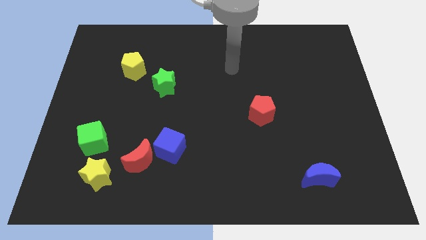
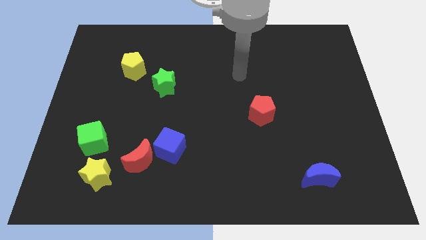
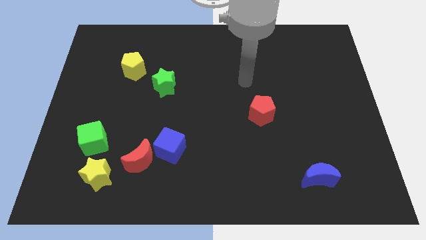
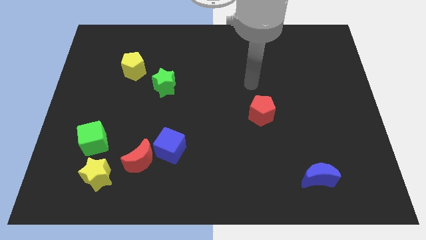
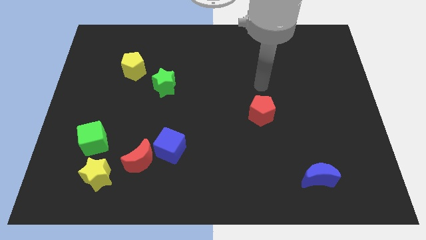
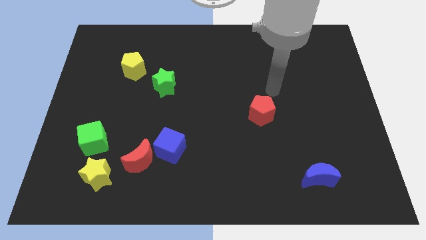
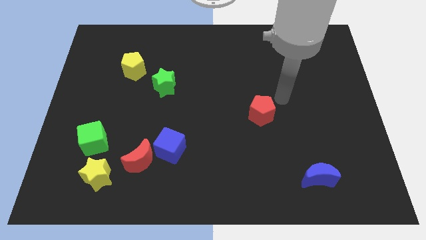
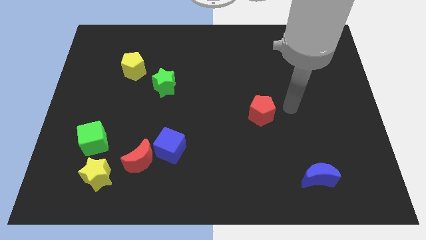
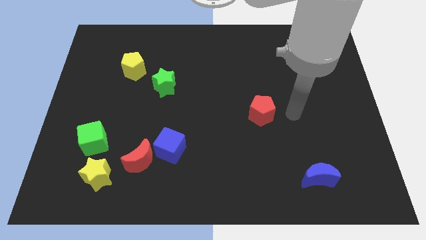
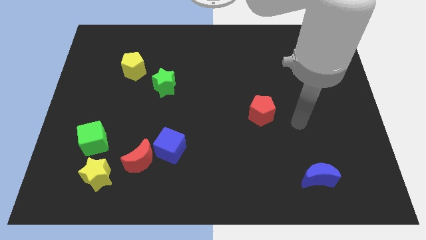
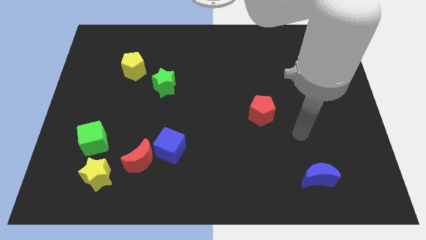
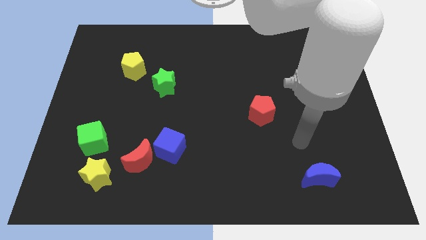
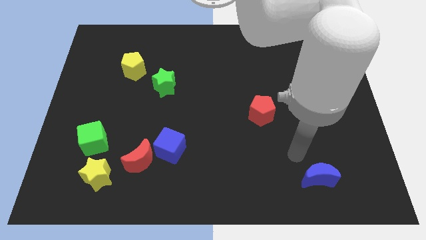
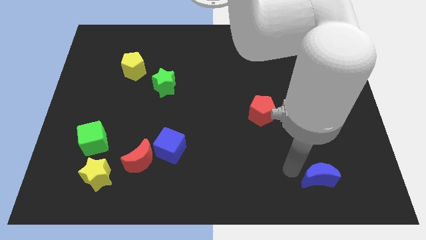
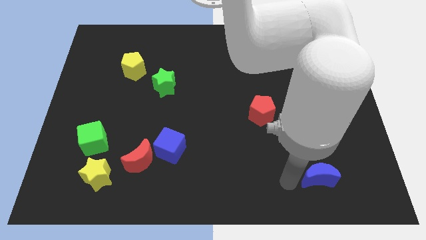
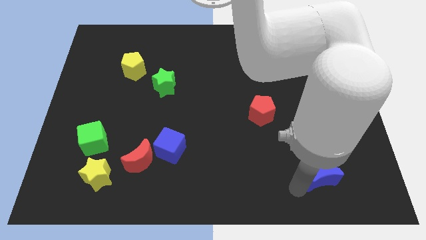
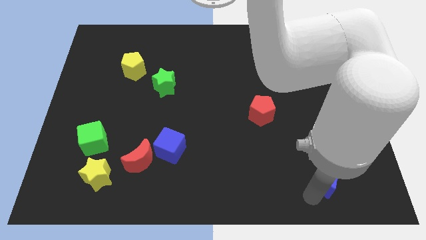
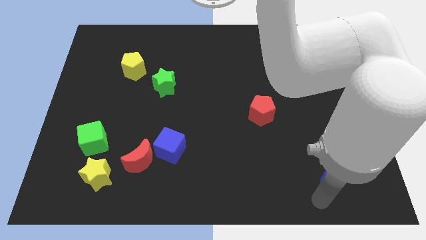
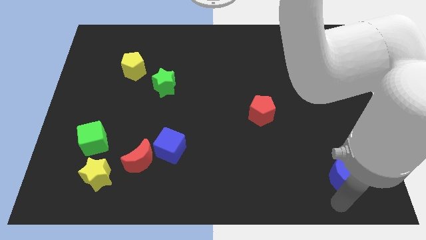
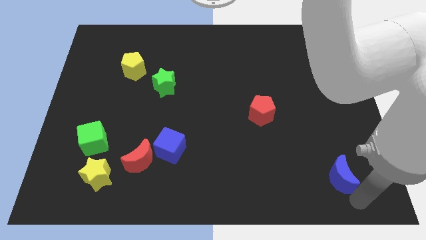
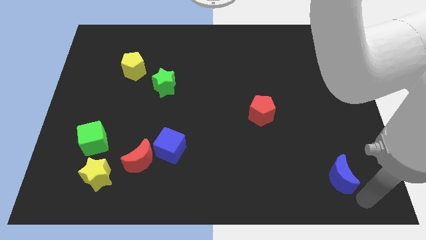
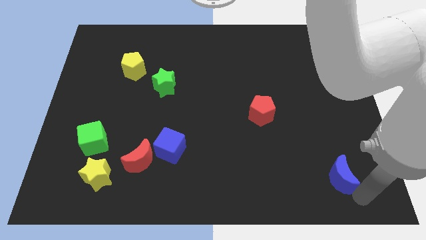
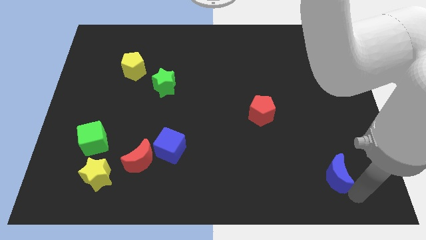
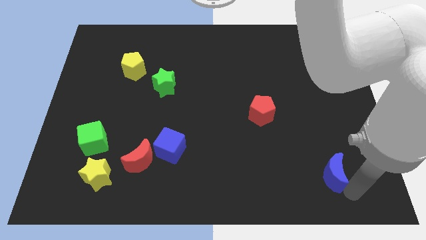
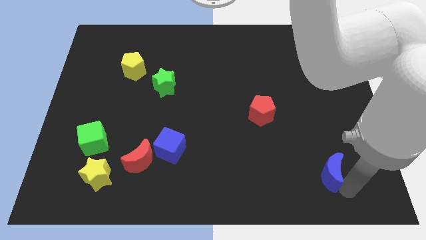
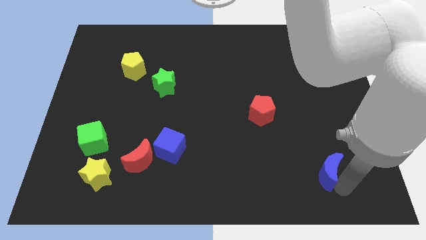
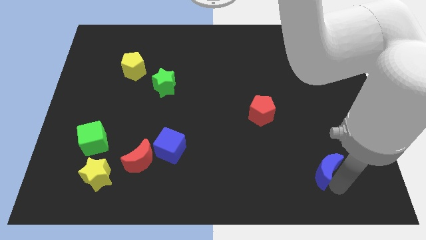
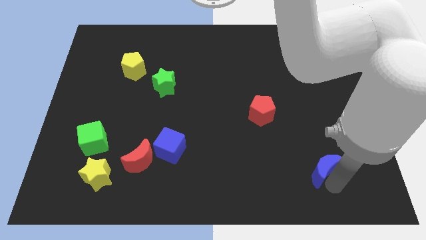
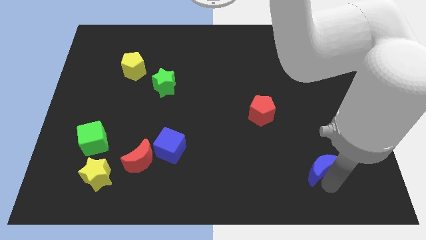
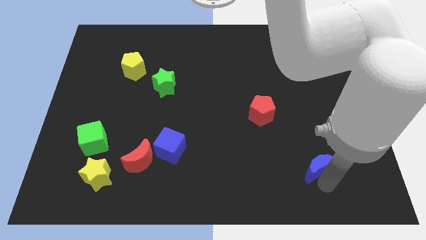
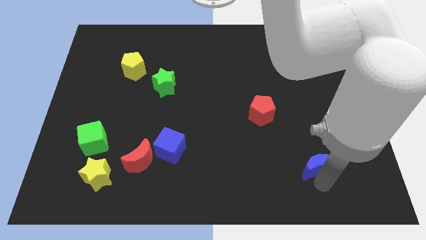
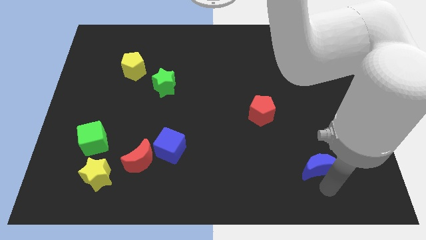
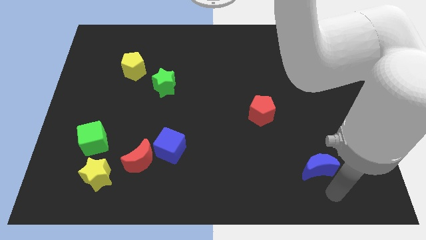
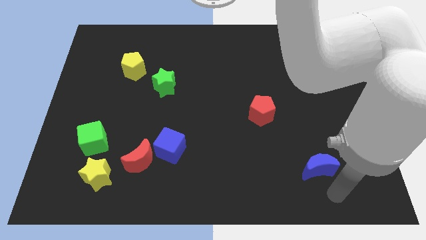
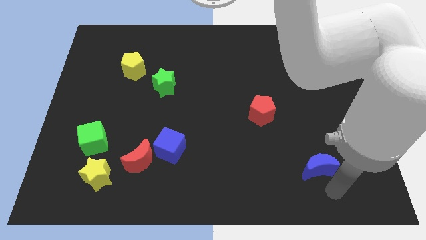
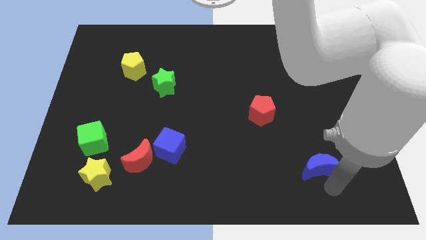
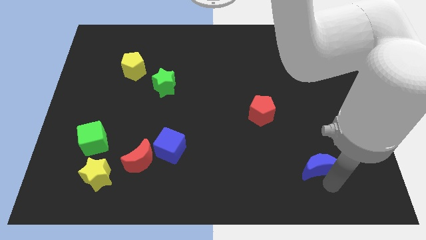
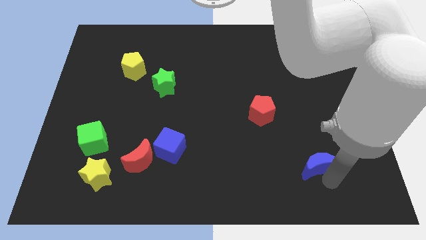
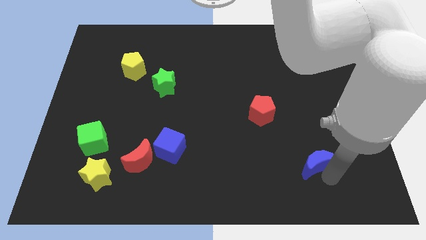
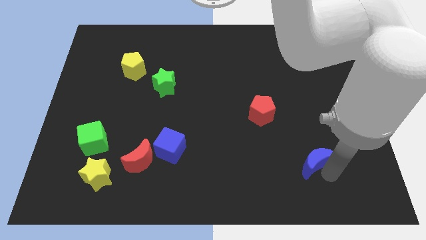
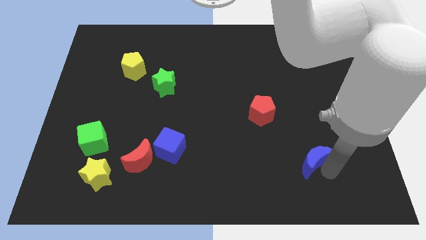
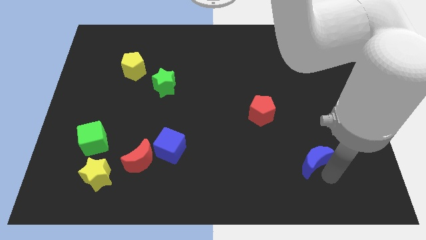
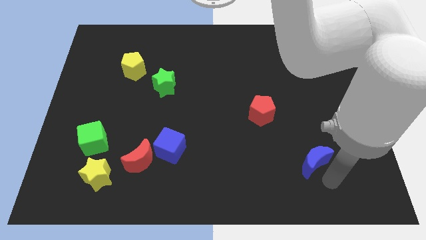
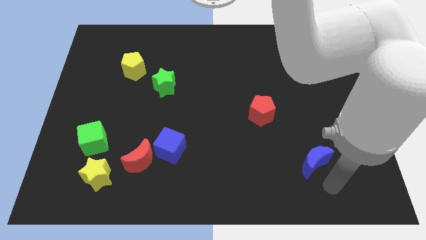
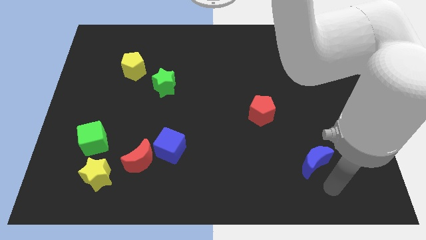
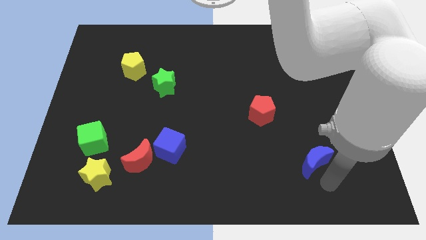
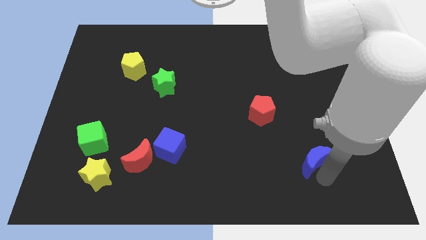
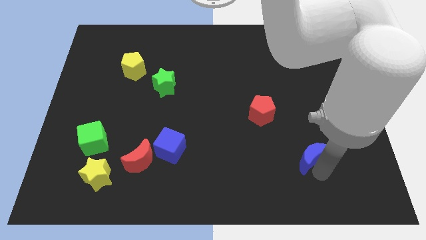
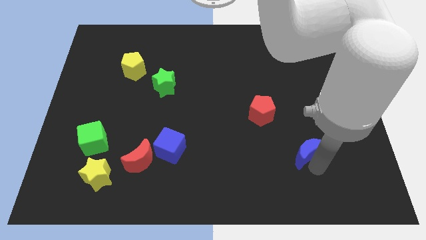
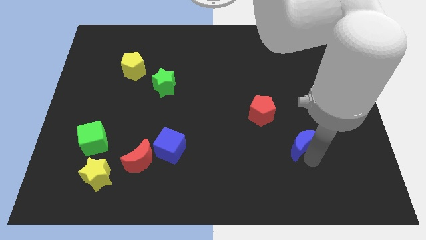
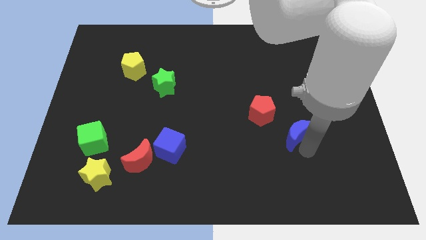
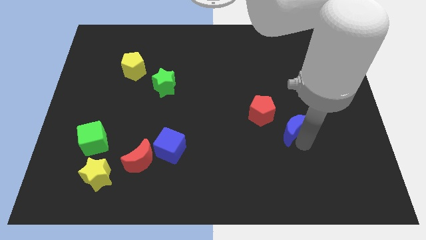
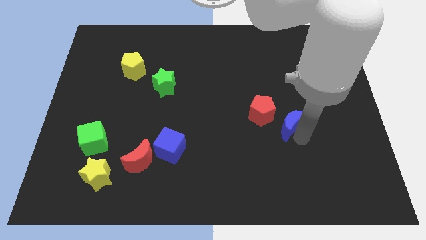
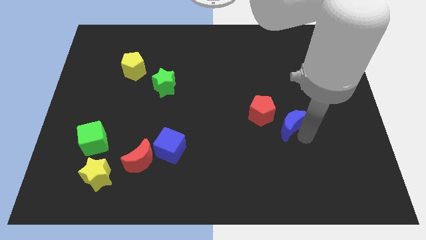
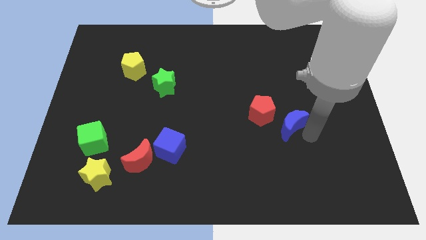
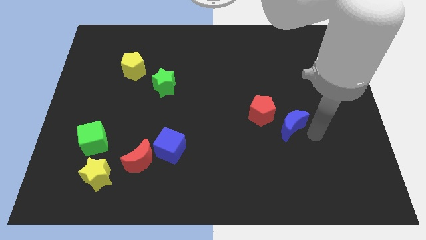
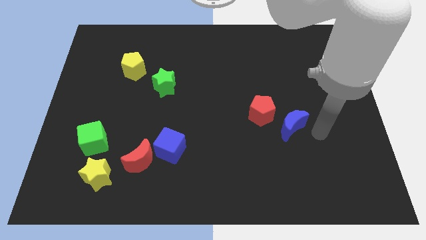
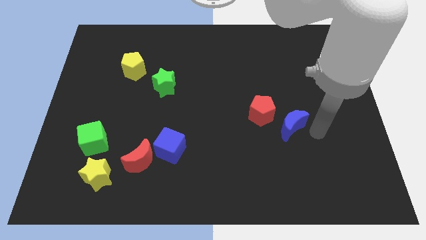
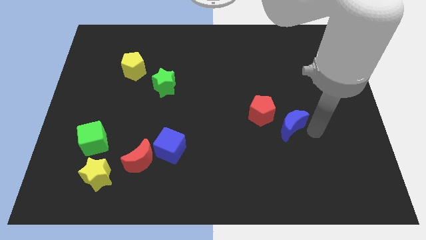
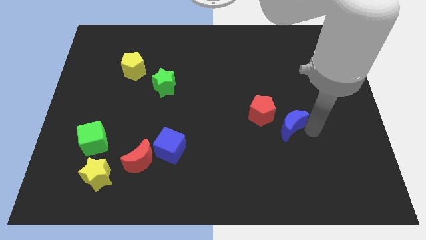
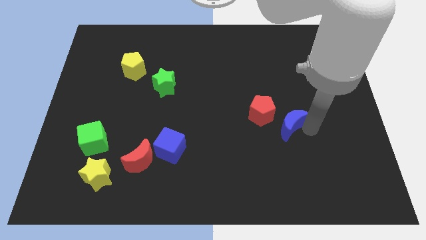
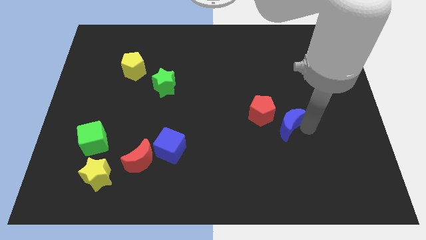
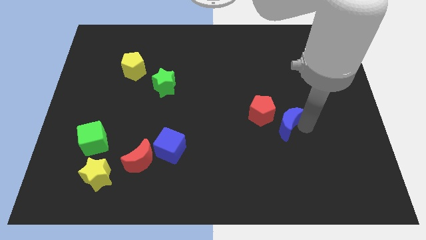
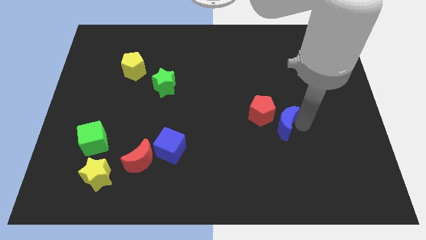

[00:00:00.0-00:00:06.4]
move the blue moon to the red pentagon
